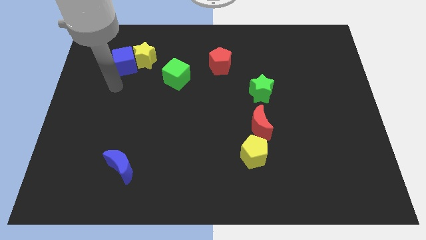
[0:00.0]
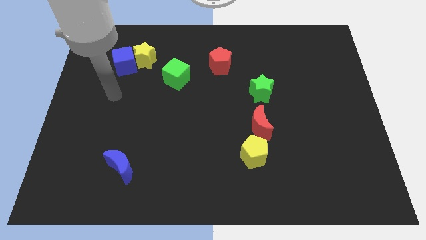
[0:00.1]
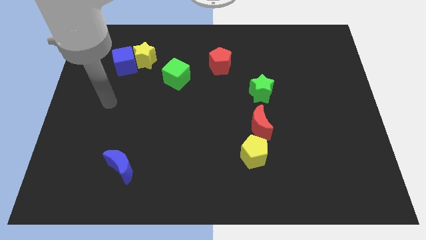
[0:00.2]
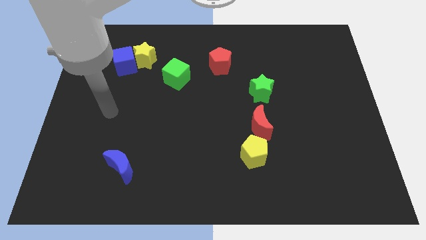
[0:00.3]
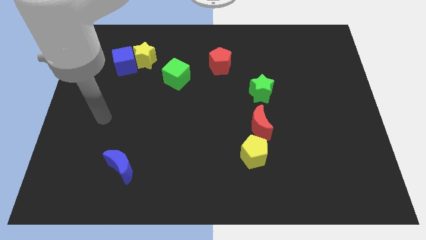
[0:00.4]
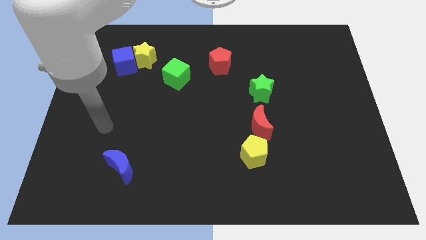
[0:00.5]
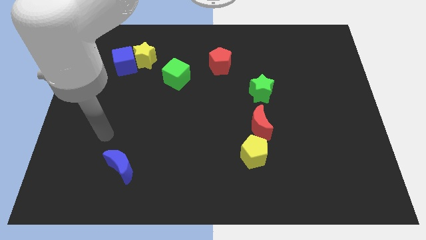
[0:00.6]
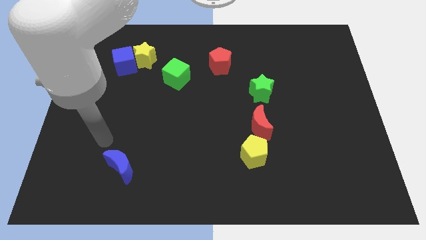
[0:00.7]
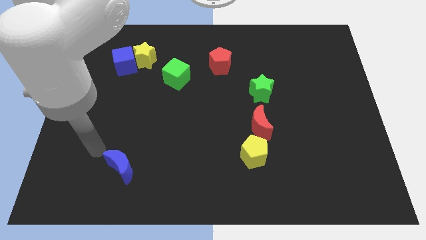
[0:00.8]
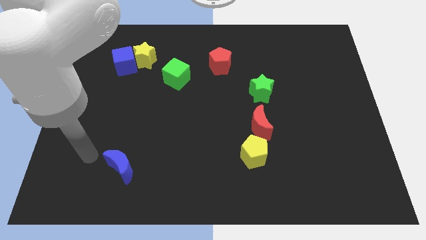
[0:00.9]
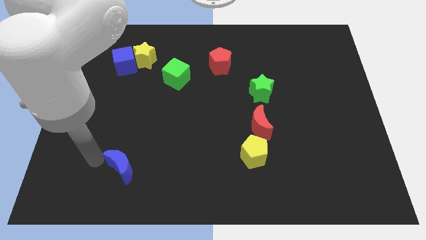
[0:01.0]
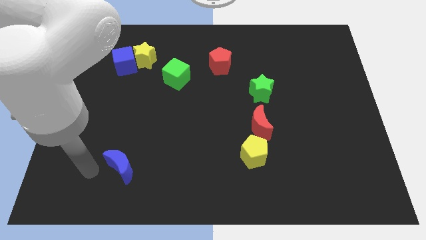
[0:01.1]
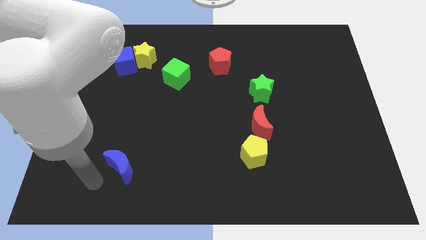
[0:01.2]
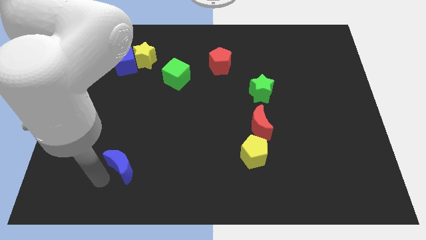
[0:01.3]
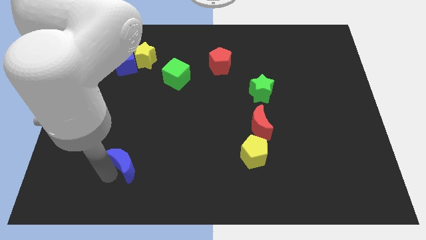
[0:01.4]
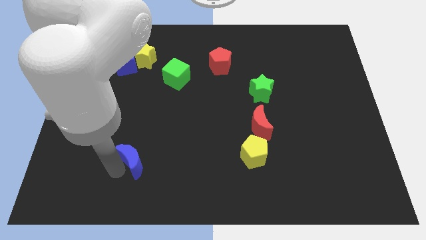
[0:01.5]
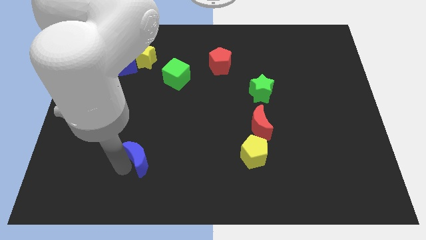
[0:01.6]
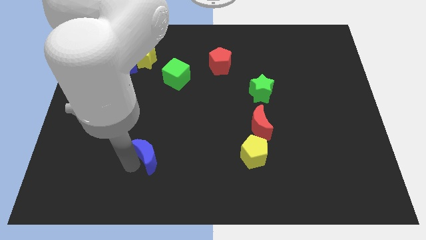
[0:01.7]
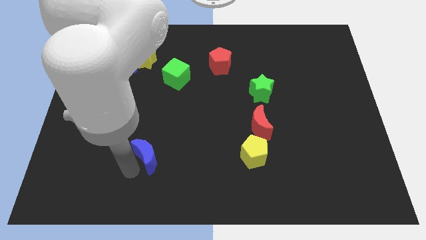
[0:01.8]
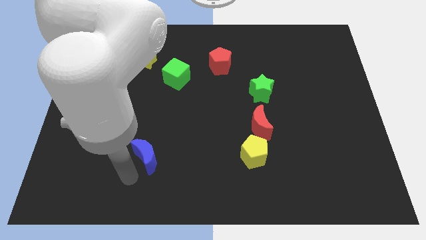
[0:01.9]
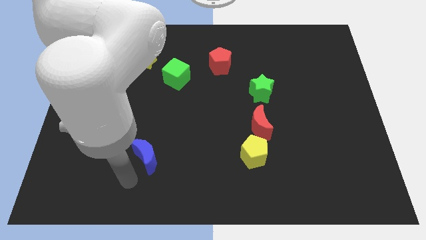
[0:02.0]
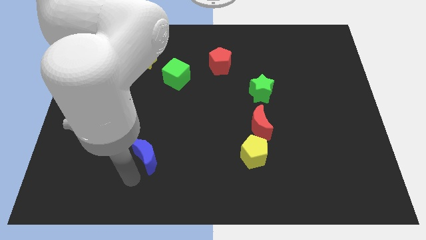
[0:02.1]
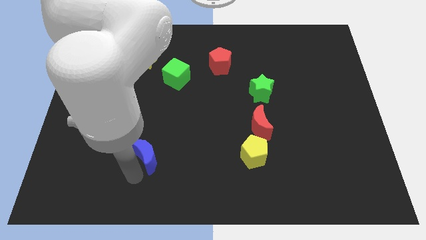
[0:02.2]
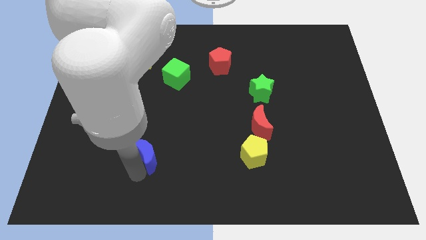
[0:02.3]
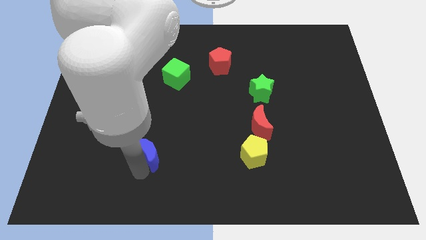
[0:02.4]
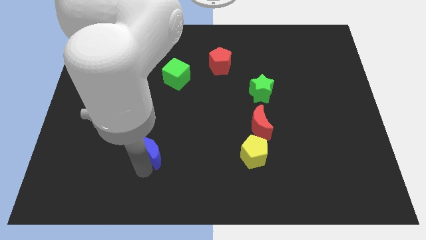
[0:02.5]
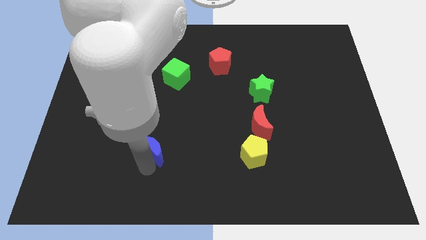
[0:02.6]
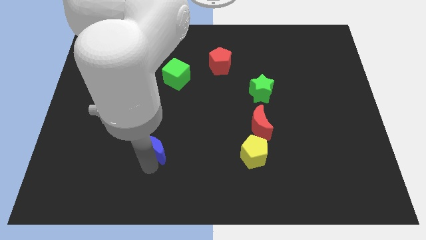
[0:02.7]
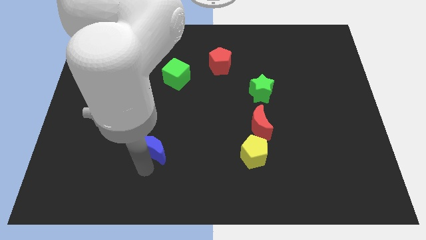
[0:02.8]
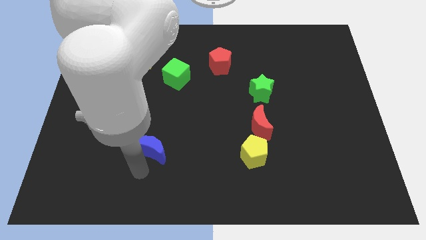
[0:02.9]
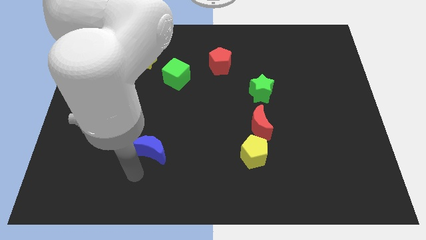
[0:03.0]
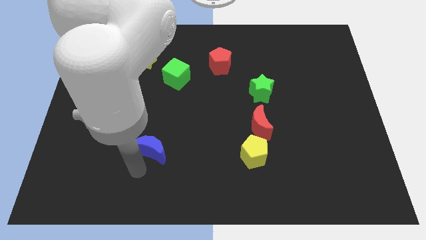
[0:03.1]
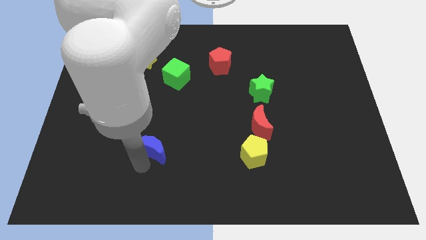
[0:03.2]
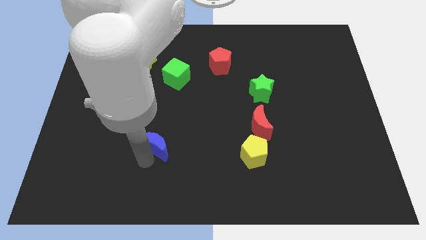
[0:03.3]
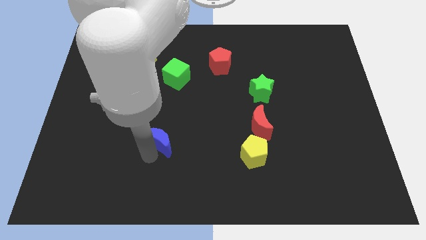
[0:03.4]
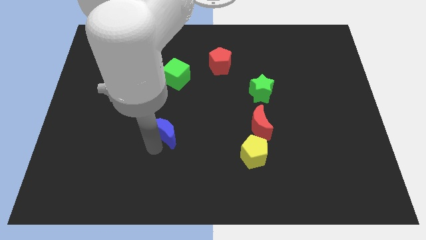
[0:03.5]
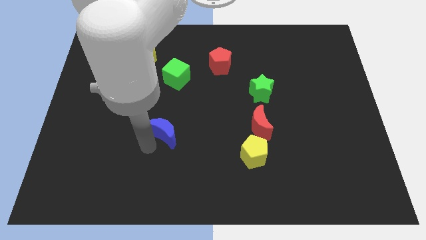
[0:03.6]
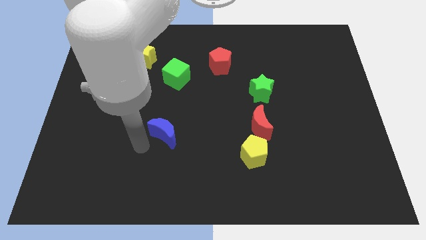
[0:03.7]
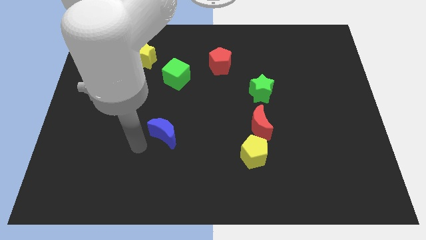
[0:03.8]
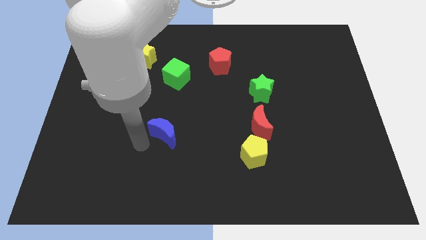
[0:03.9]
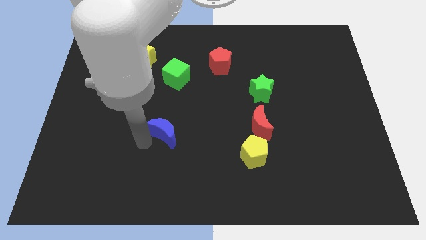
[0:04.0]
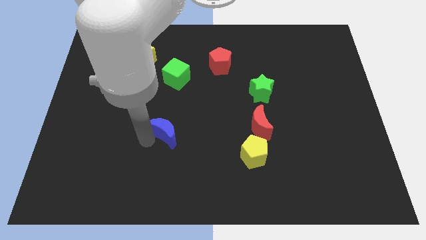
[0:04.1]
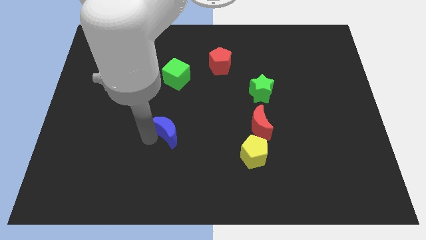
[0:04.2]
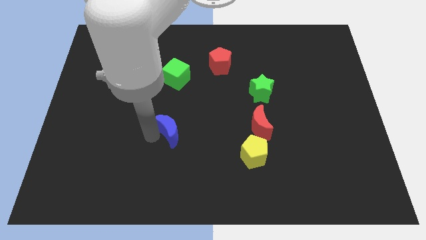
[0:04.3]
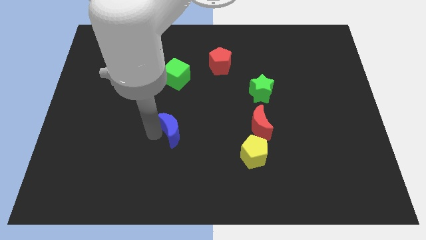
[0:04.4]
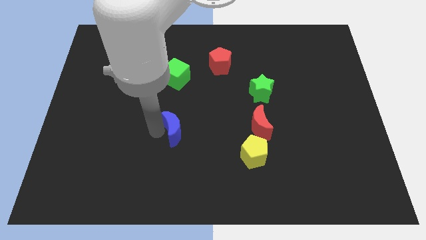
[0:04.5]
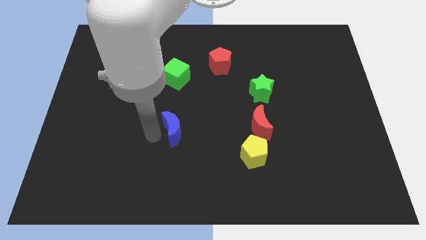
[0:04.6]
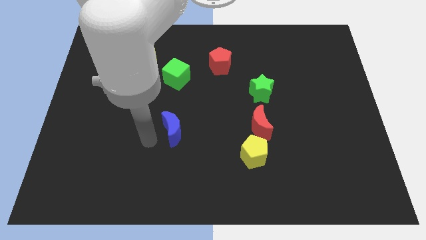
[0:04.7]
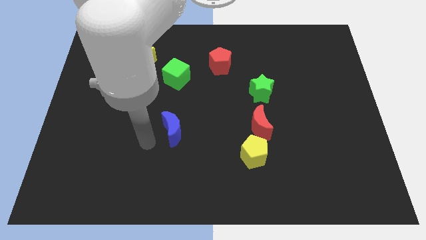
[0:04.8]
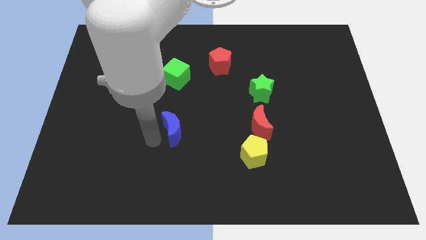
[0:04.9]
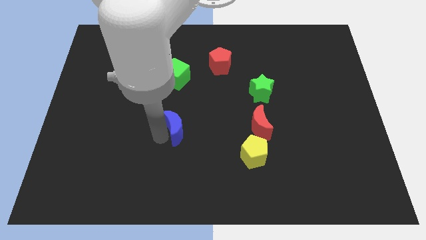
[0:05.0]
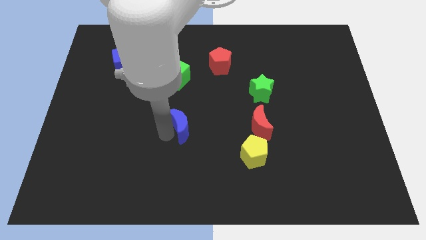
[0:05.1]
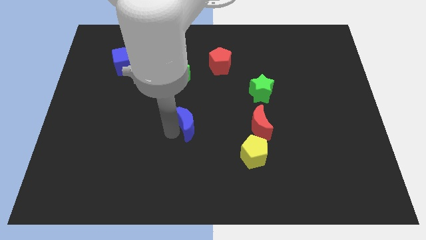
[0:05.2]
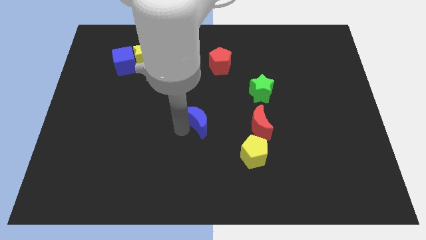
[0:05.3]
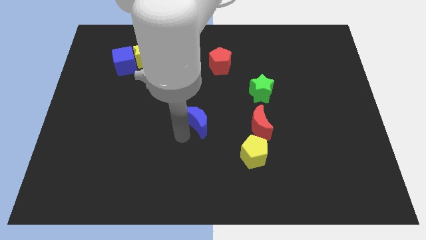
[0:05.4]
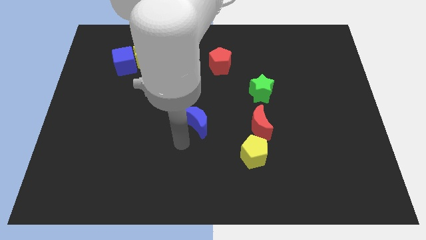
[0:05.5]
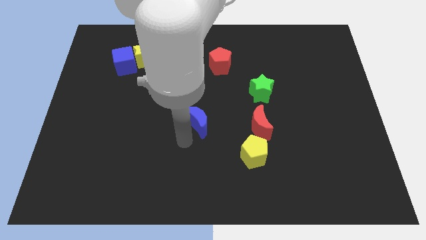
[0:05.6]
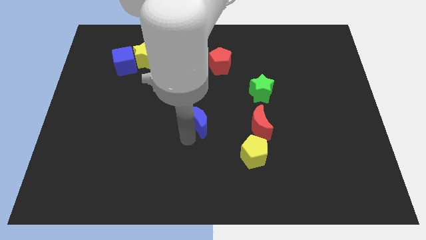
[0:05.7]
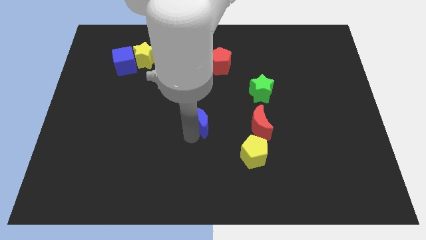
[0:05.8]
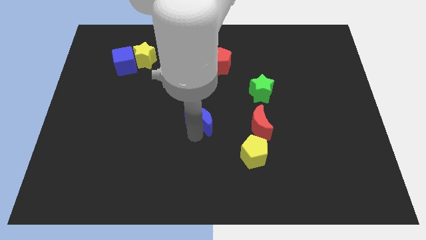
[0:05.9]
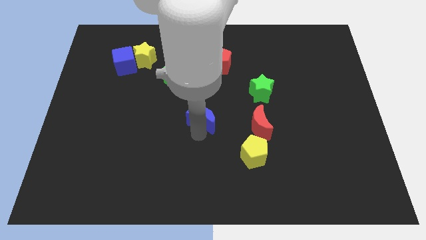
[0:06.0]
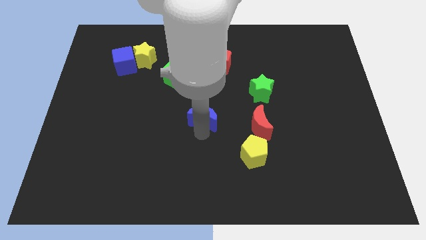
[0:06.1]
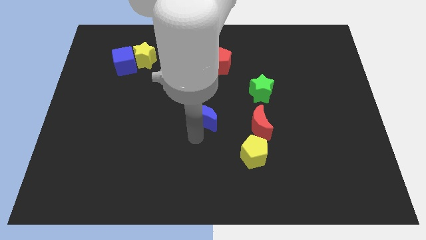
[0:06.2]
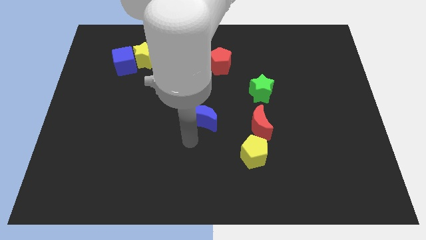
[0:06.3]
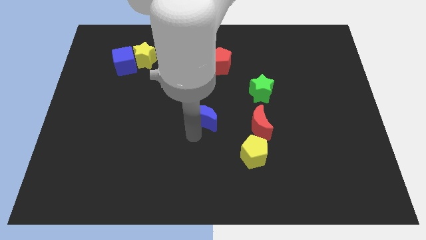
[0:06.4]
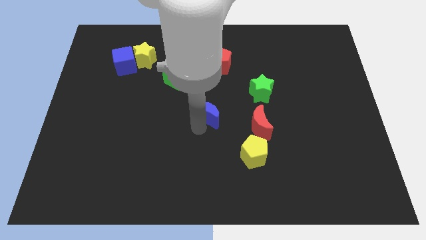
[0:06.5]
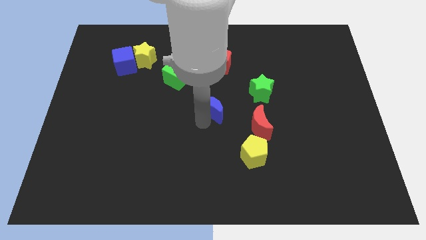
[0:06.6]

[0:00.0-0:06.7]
move the blue moon to the bottom of the red pentagon
